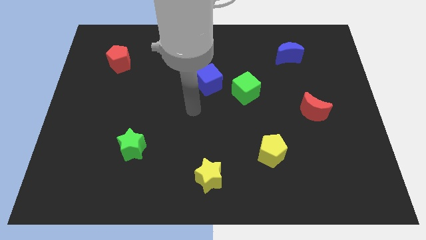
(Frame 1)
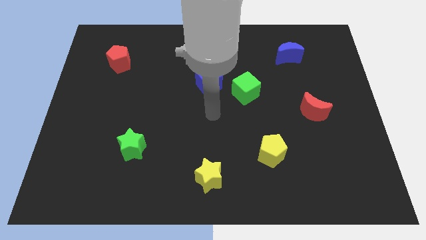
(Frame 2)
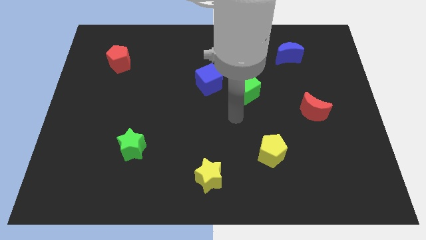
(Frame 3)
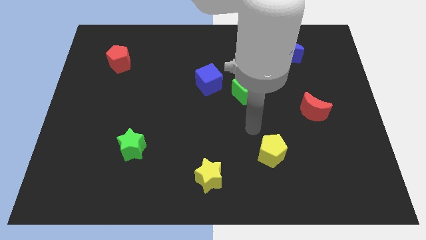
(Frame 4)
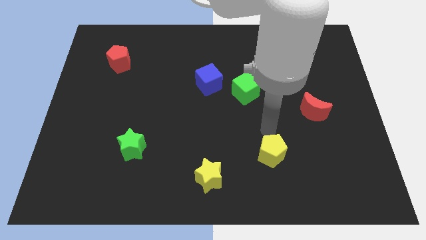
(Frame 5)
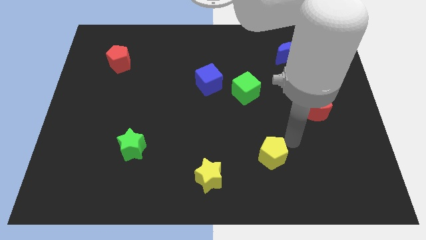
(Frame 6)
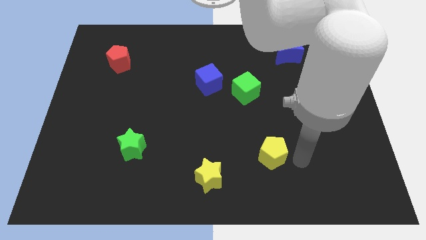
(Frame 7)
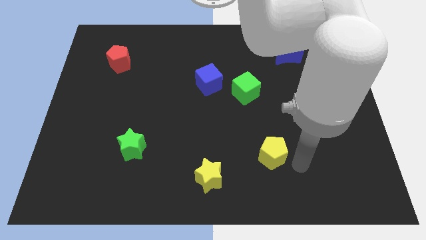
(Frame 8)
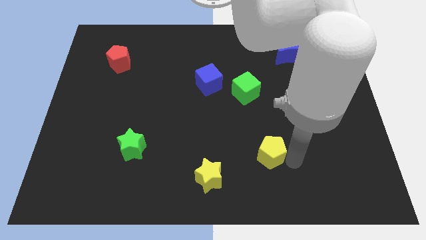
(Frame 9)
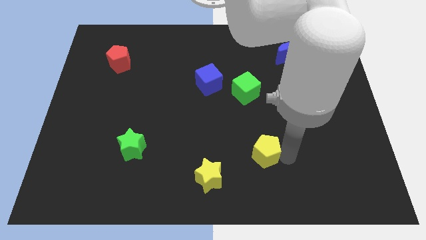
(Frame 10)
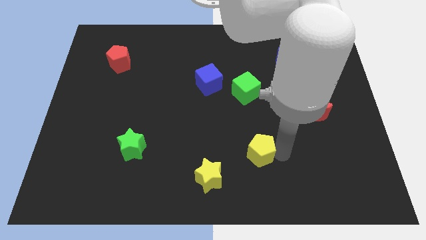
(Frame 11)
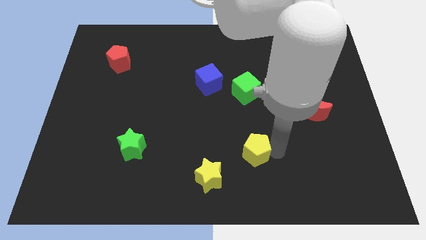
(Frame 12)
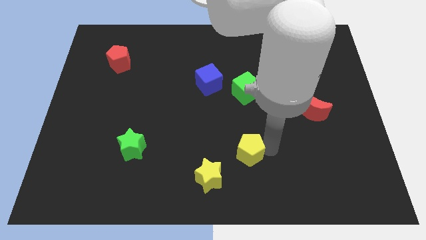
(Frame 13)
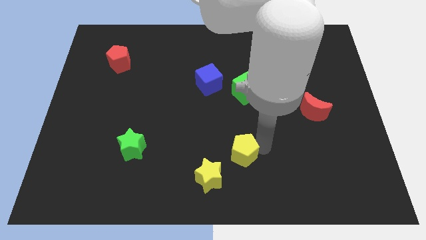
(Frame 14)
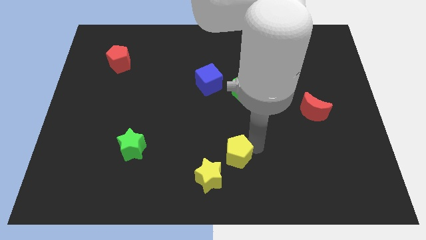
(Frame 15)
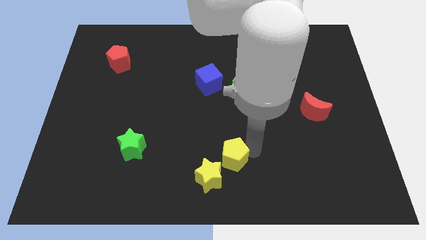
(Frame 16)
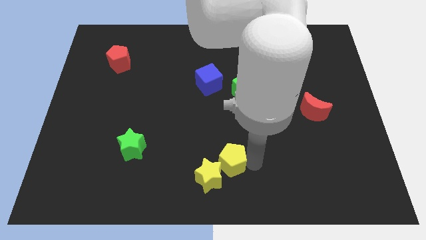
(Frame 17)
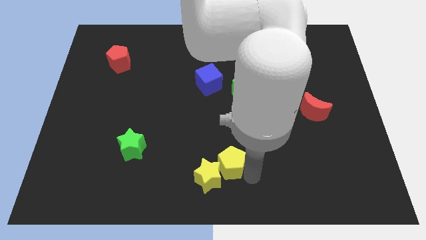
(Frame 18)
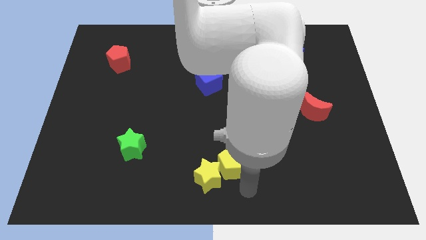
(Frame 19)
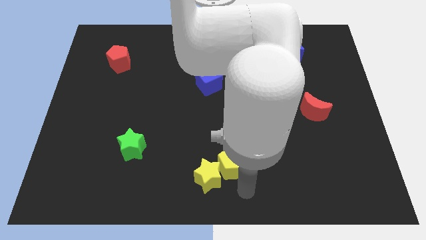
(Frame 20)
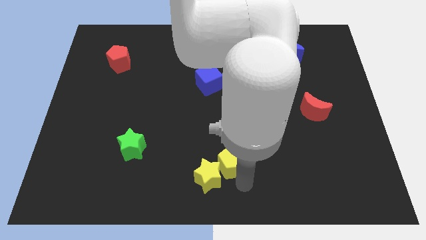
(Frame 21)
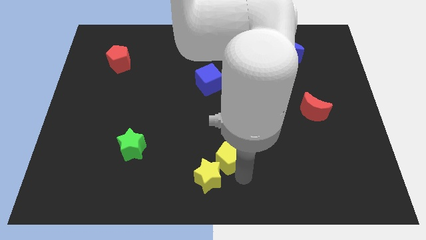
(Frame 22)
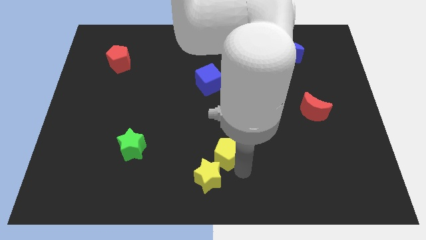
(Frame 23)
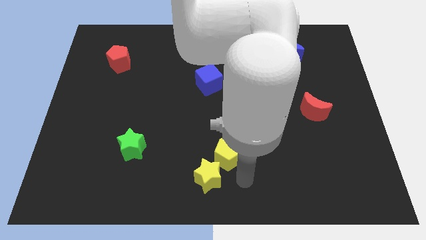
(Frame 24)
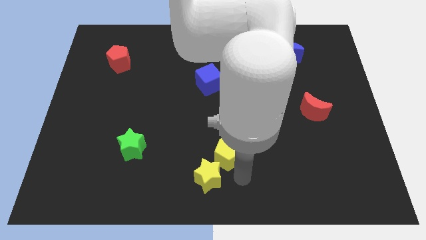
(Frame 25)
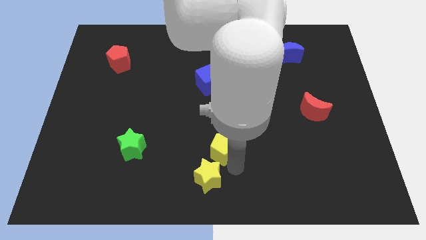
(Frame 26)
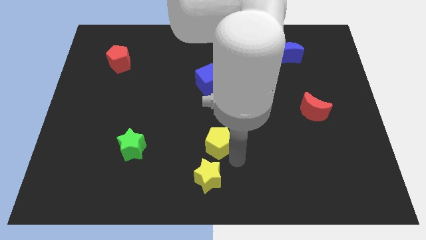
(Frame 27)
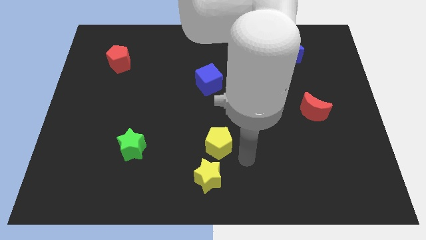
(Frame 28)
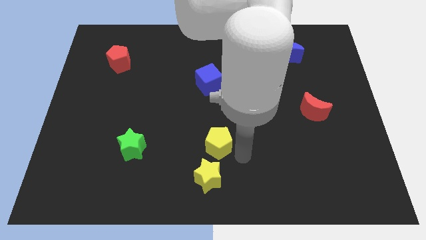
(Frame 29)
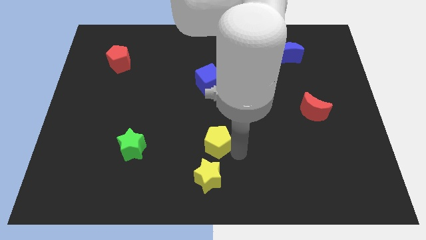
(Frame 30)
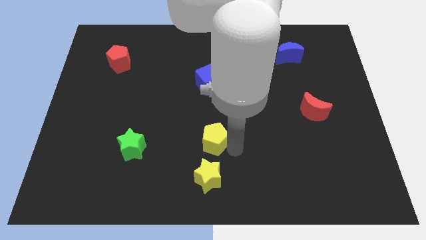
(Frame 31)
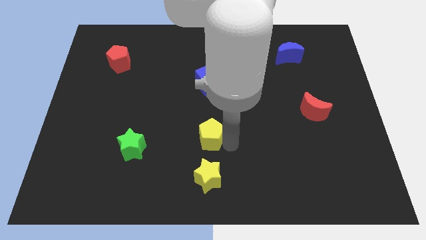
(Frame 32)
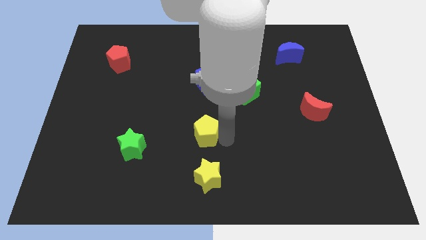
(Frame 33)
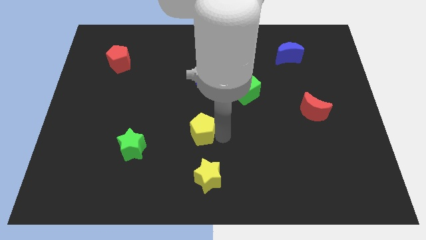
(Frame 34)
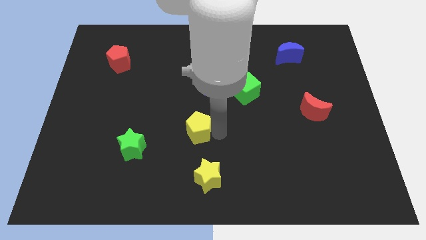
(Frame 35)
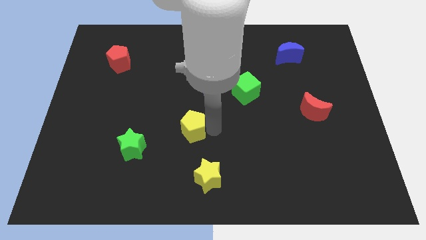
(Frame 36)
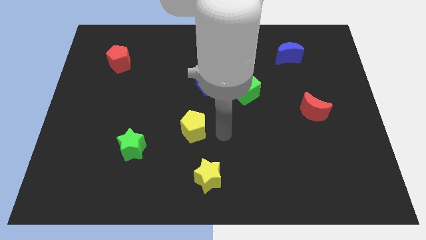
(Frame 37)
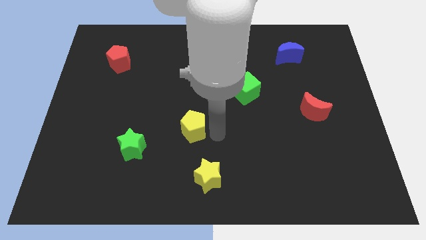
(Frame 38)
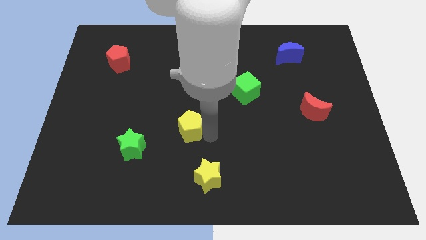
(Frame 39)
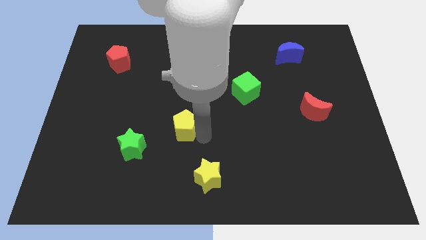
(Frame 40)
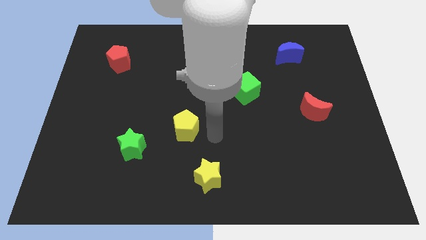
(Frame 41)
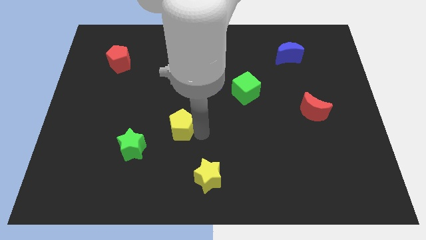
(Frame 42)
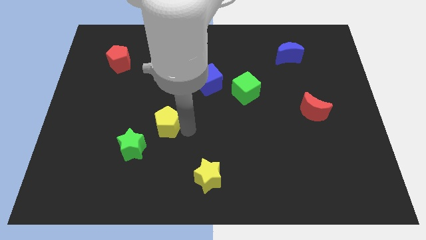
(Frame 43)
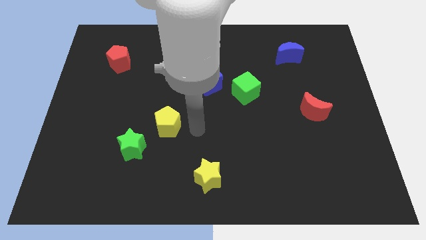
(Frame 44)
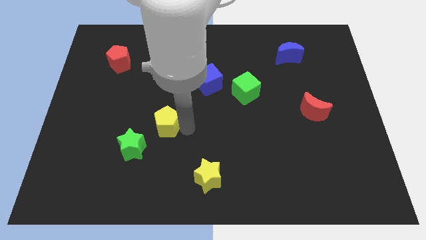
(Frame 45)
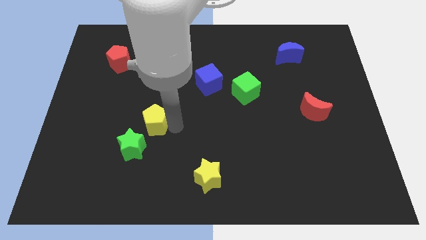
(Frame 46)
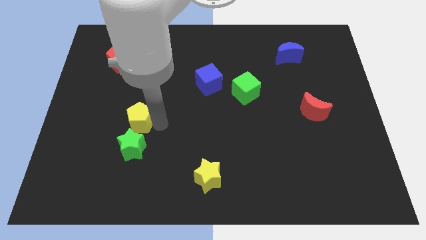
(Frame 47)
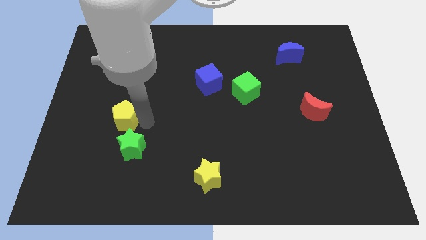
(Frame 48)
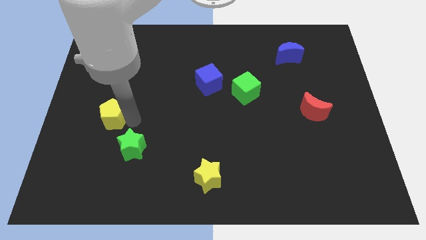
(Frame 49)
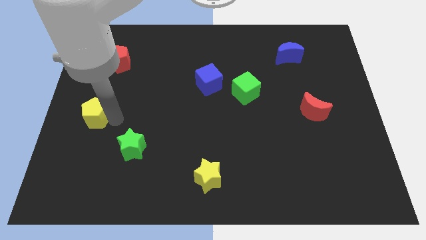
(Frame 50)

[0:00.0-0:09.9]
put the yellow pentagon to the center left

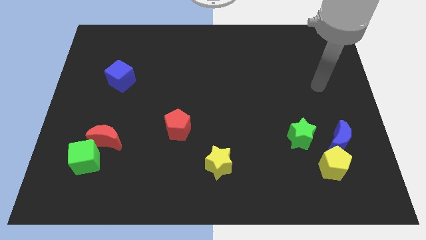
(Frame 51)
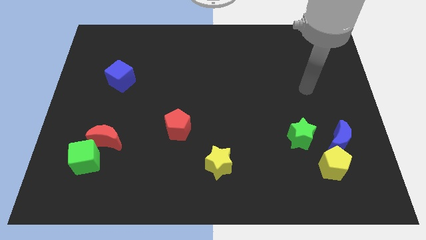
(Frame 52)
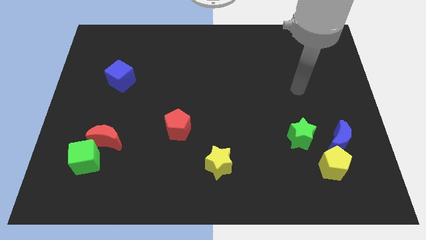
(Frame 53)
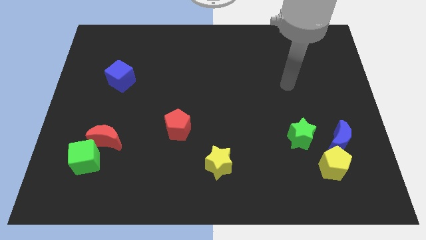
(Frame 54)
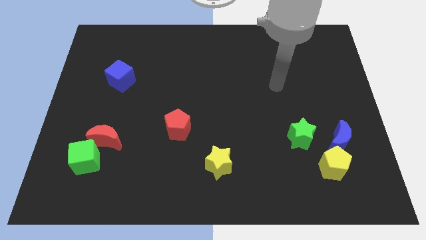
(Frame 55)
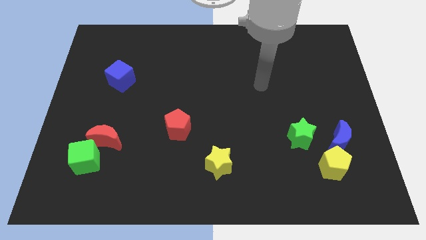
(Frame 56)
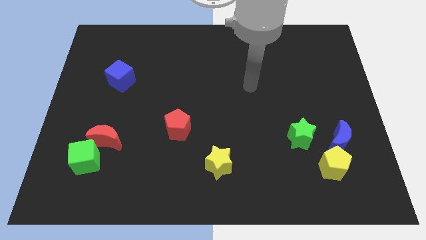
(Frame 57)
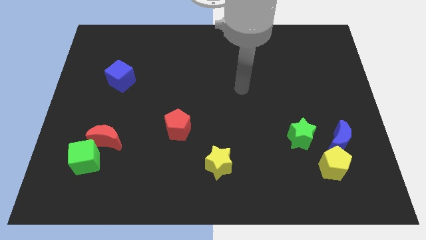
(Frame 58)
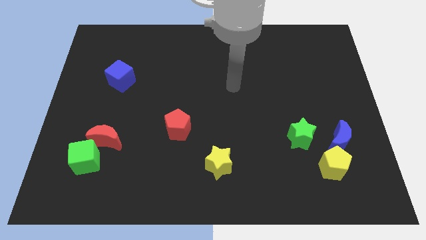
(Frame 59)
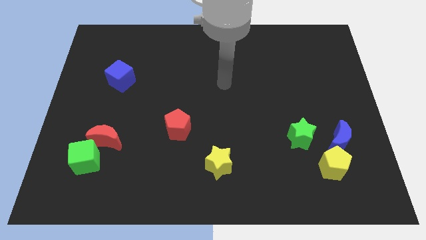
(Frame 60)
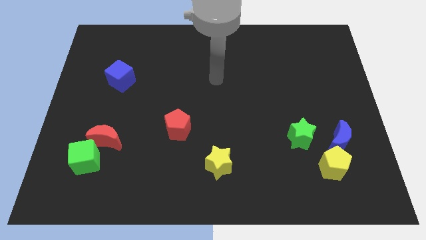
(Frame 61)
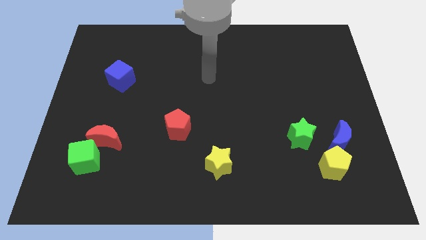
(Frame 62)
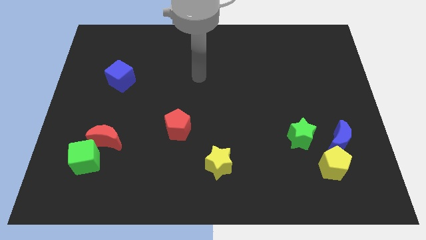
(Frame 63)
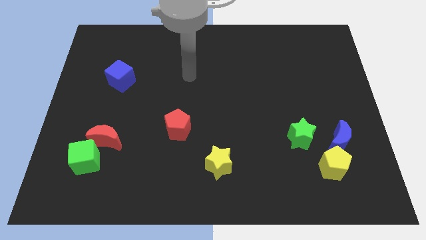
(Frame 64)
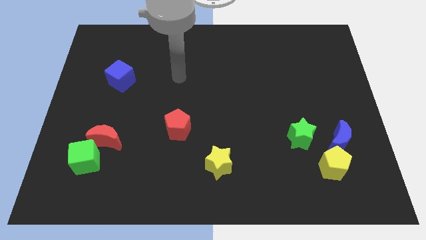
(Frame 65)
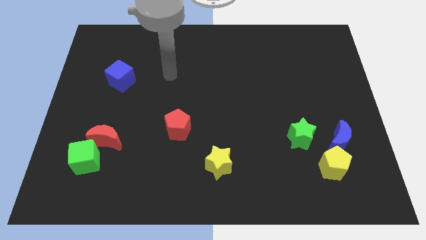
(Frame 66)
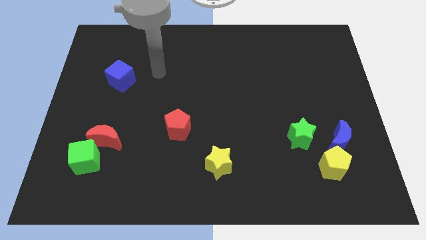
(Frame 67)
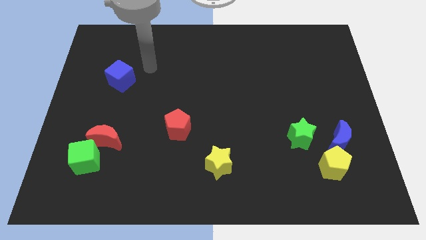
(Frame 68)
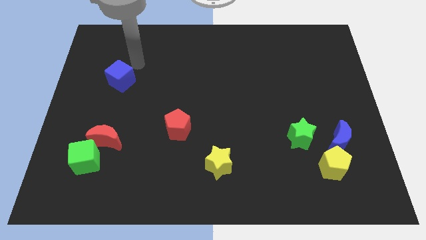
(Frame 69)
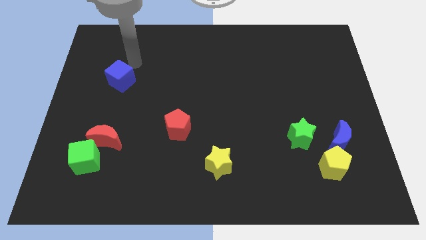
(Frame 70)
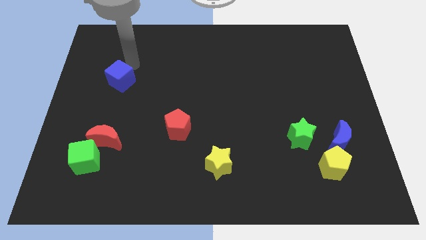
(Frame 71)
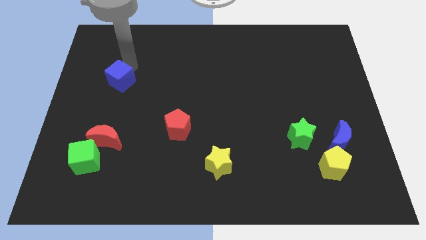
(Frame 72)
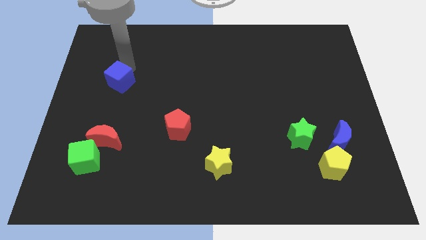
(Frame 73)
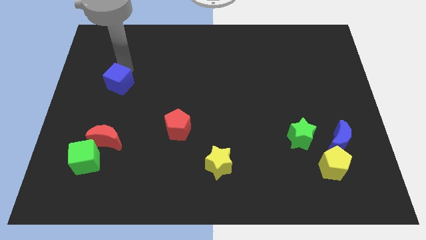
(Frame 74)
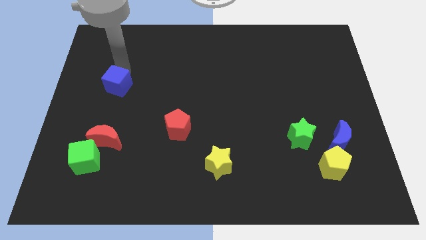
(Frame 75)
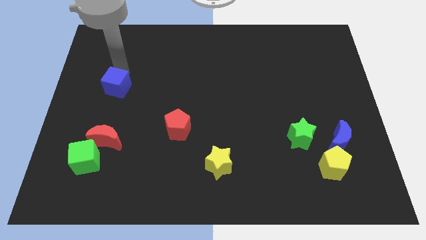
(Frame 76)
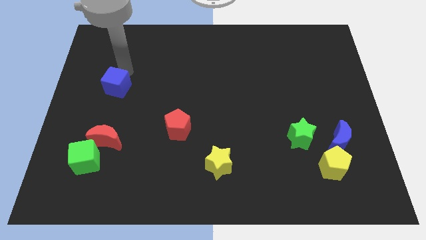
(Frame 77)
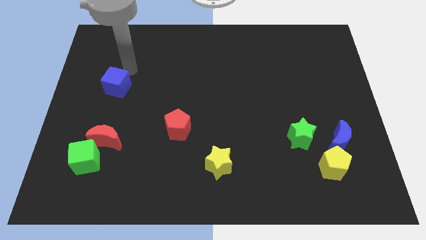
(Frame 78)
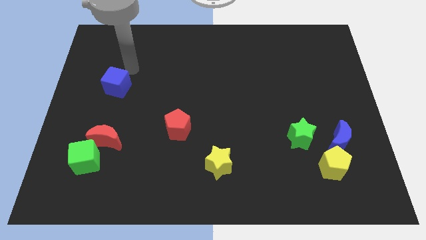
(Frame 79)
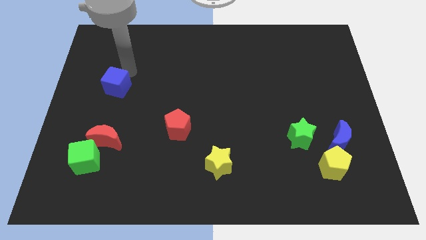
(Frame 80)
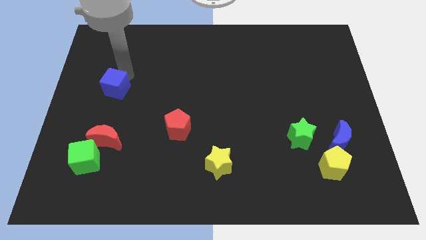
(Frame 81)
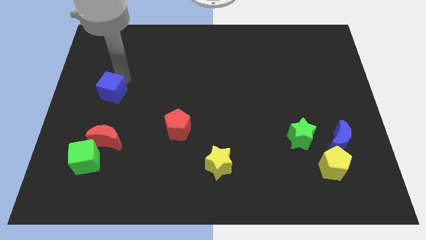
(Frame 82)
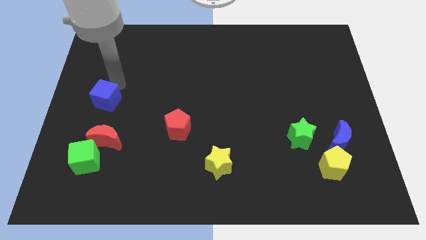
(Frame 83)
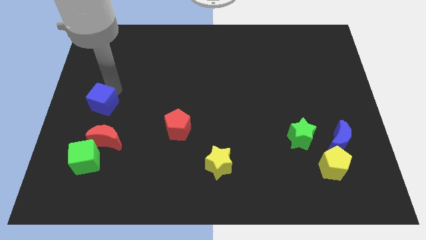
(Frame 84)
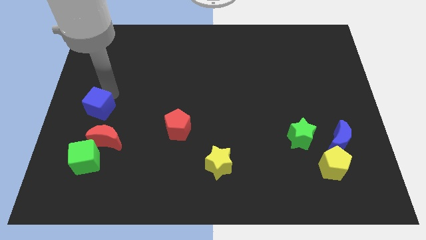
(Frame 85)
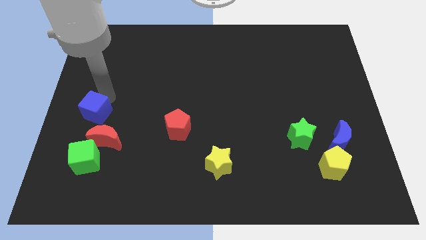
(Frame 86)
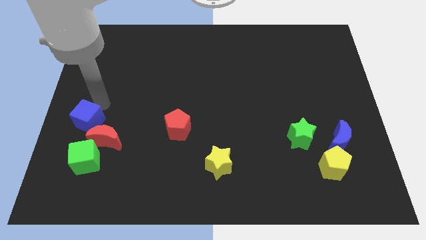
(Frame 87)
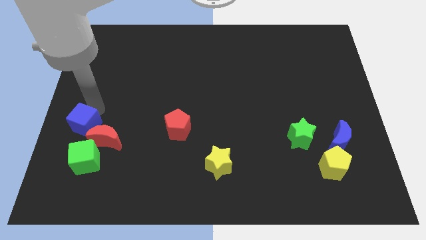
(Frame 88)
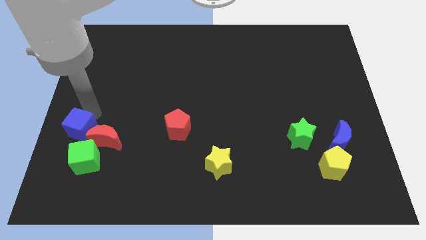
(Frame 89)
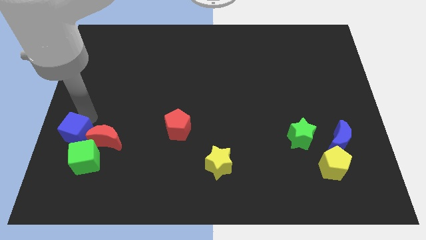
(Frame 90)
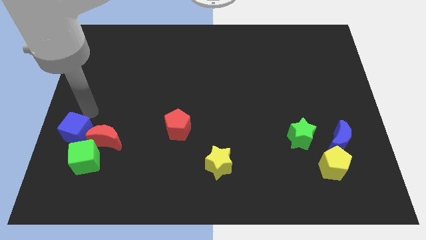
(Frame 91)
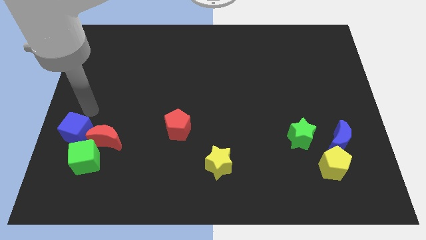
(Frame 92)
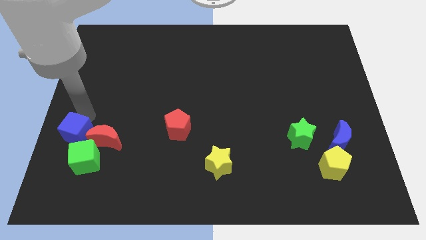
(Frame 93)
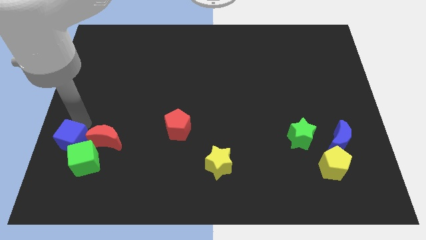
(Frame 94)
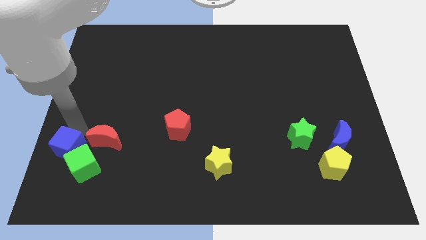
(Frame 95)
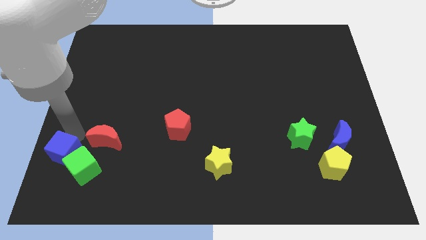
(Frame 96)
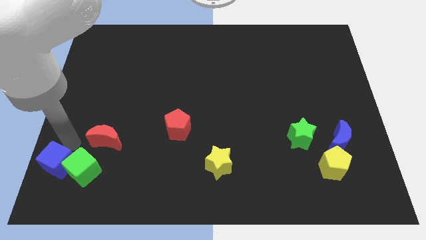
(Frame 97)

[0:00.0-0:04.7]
push the blue cube to the lower left corner
